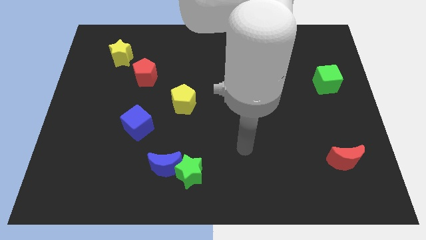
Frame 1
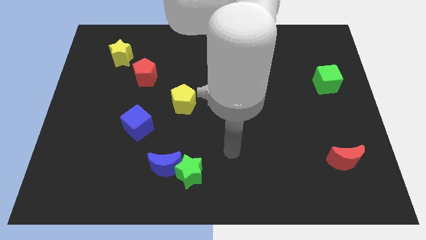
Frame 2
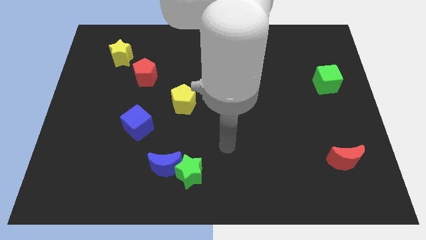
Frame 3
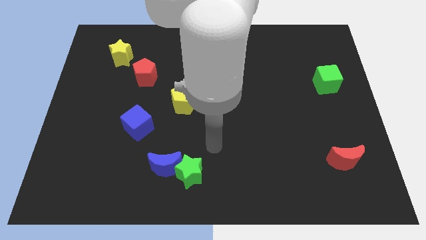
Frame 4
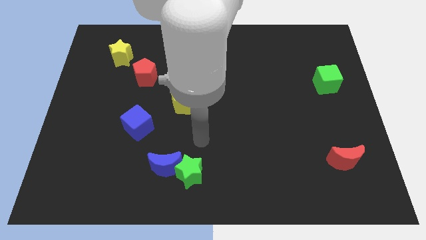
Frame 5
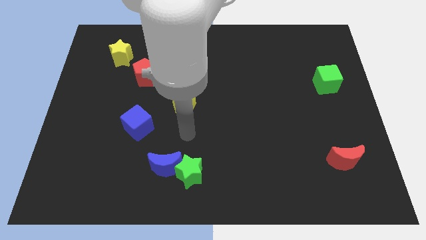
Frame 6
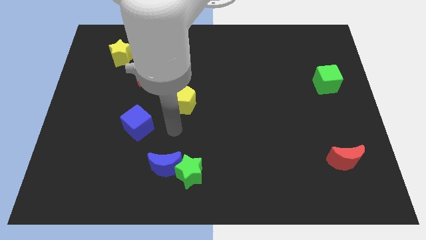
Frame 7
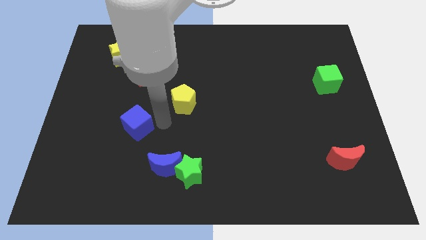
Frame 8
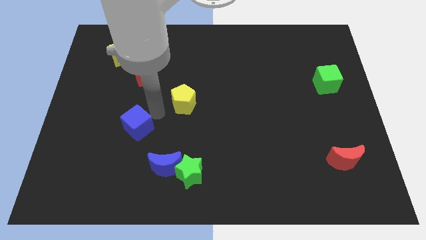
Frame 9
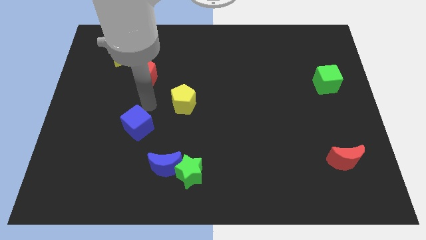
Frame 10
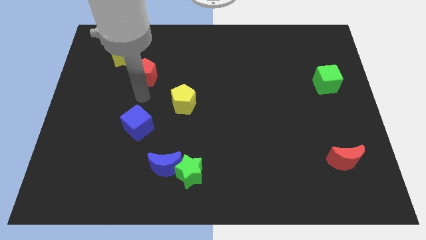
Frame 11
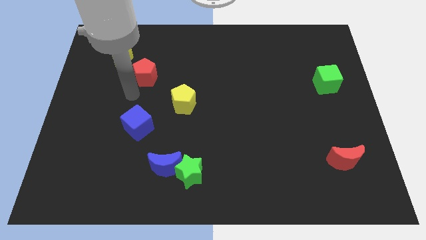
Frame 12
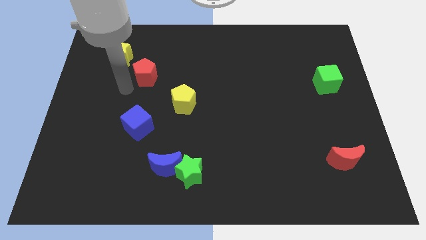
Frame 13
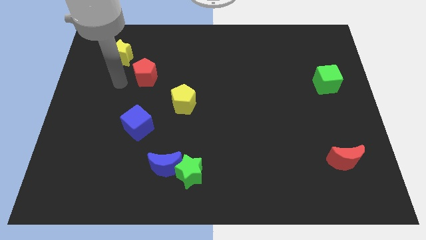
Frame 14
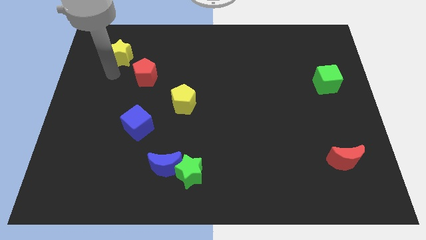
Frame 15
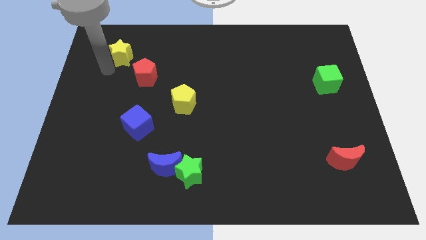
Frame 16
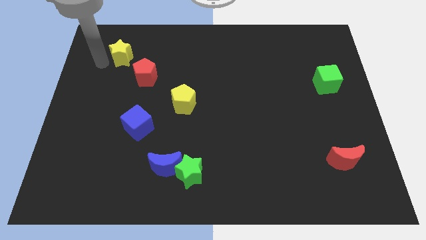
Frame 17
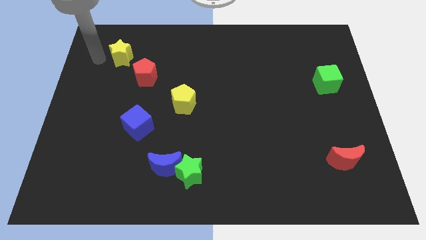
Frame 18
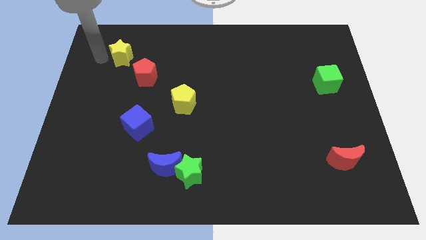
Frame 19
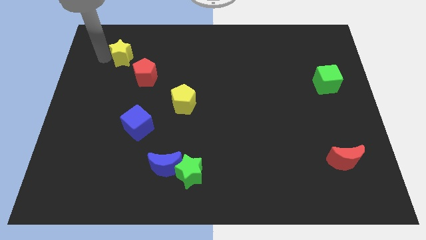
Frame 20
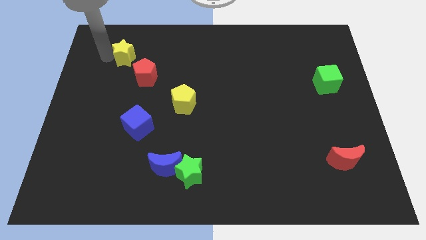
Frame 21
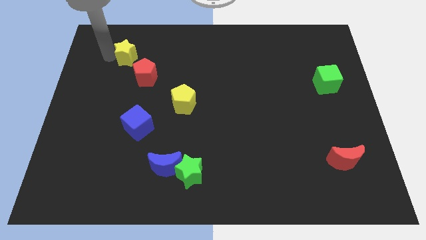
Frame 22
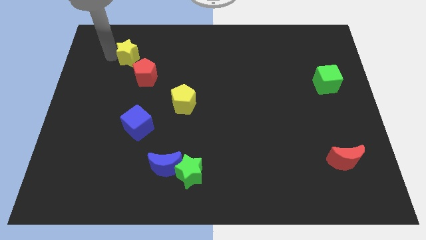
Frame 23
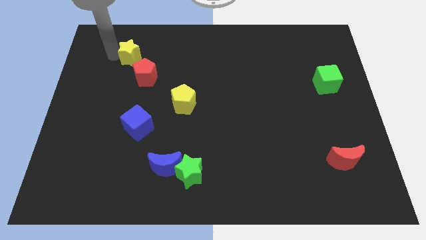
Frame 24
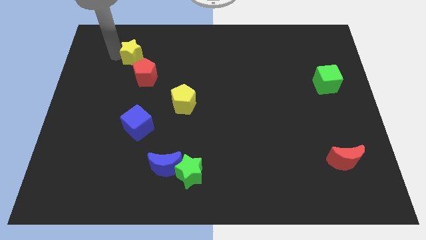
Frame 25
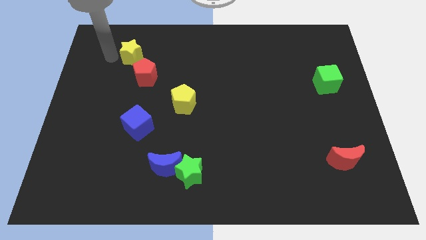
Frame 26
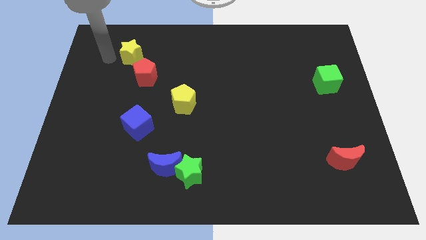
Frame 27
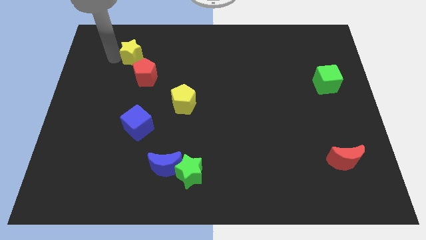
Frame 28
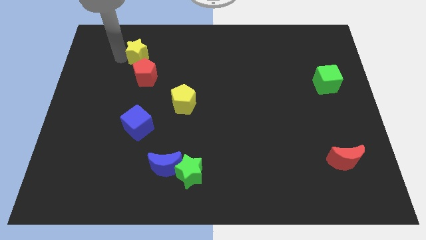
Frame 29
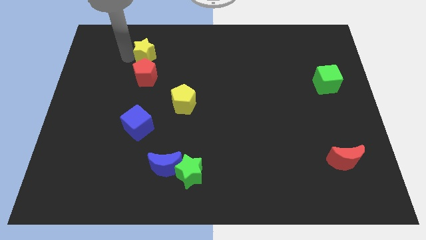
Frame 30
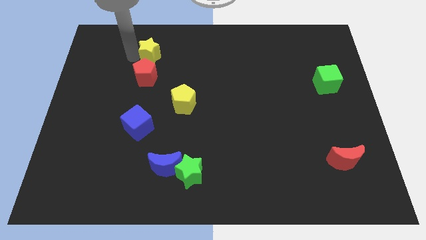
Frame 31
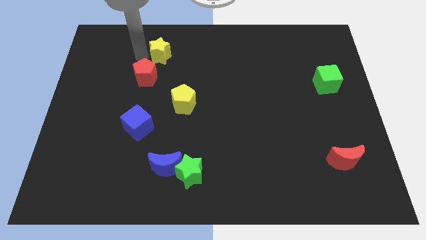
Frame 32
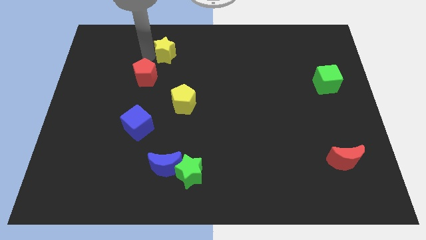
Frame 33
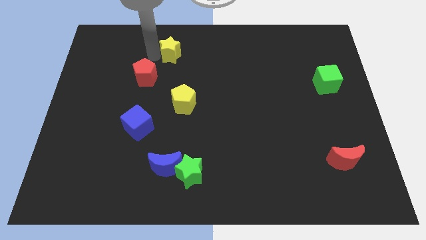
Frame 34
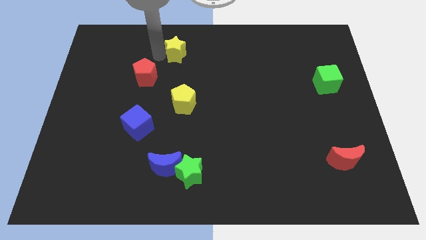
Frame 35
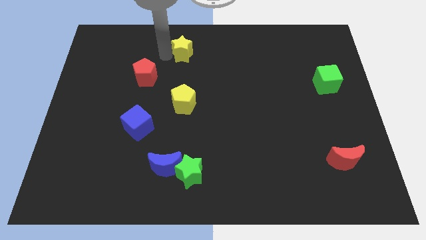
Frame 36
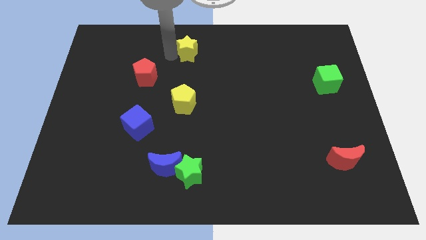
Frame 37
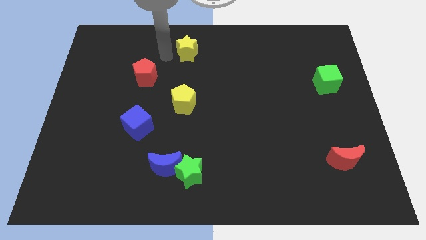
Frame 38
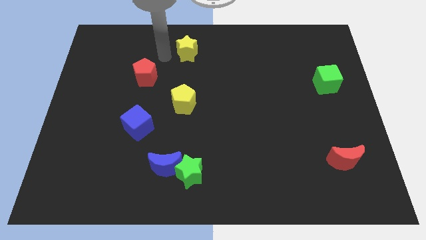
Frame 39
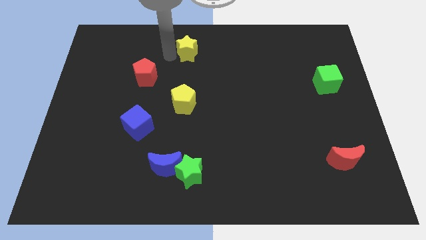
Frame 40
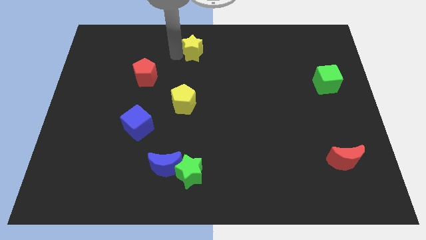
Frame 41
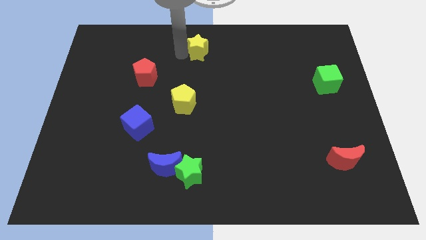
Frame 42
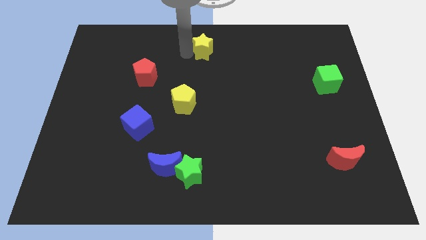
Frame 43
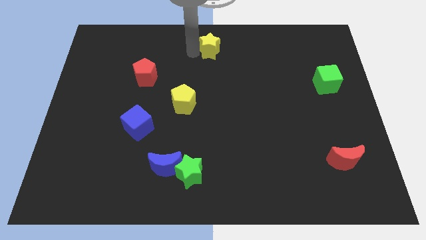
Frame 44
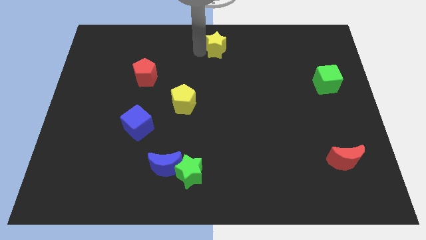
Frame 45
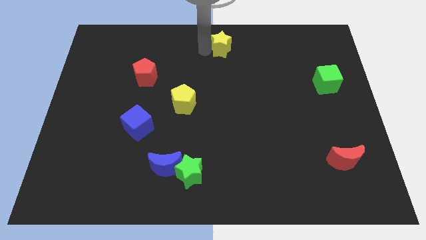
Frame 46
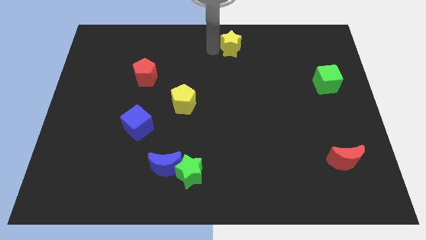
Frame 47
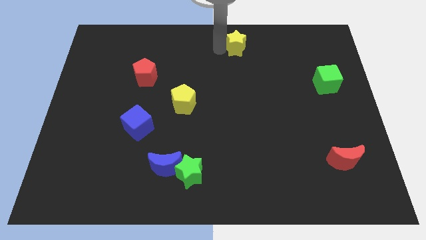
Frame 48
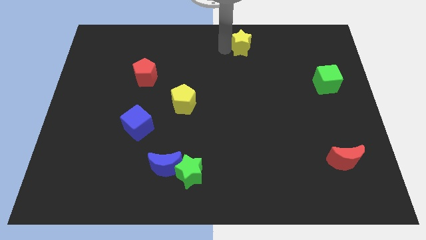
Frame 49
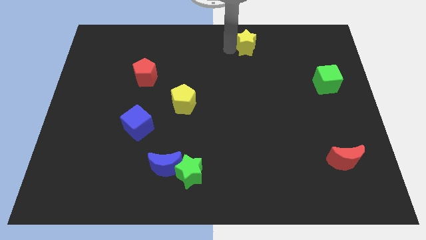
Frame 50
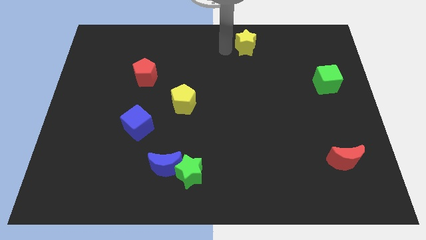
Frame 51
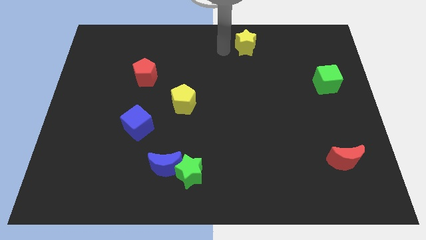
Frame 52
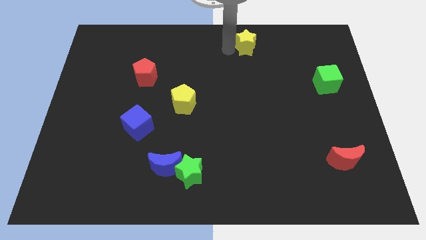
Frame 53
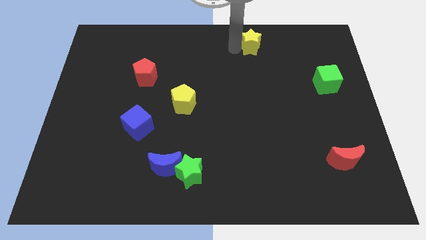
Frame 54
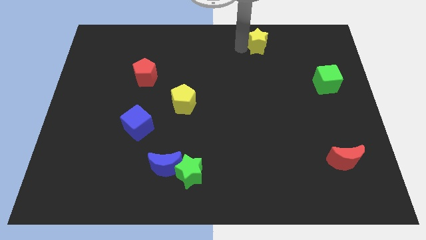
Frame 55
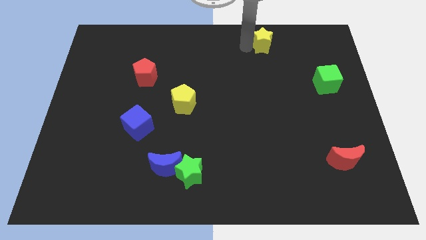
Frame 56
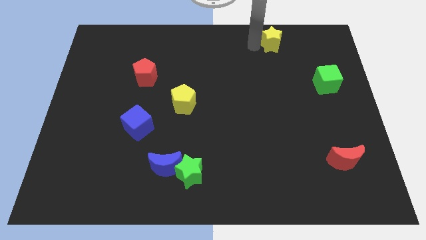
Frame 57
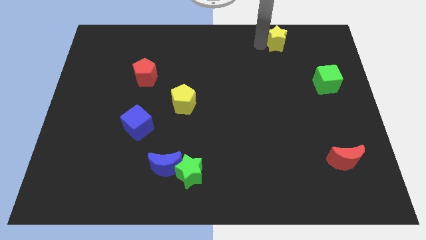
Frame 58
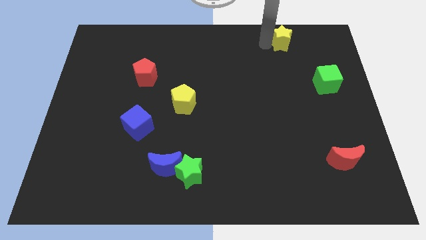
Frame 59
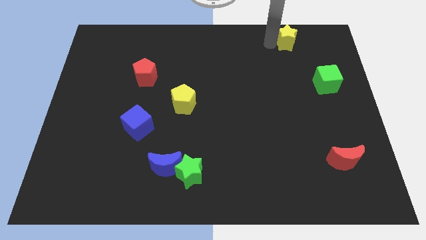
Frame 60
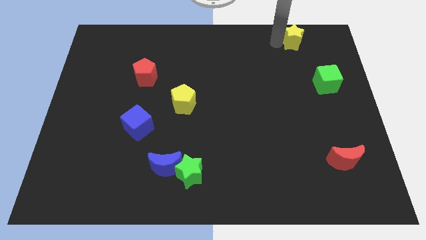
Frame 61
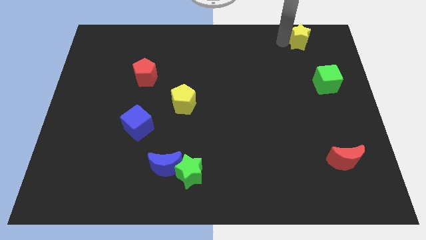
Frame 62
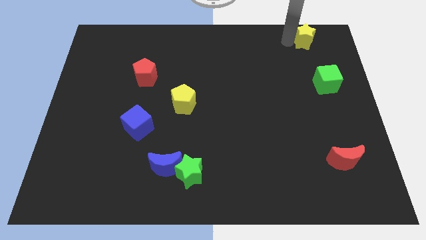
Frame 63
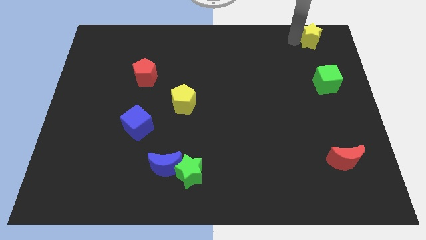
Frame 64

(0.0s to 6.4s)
slide the yellow star to the top right
